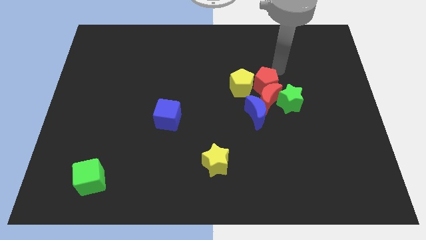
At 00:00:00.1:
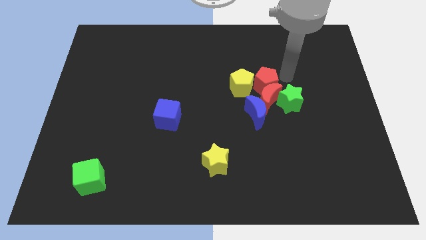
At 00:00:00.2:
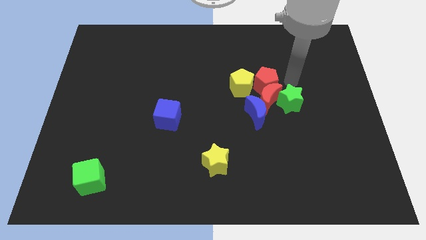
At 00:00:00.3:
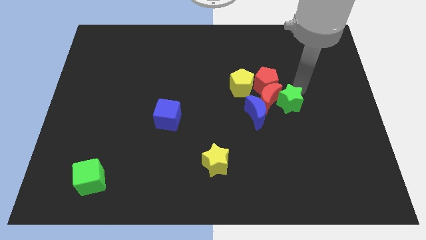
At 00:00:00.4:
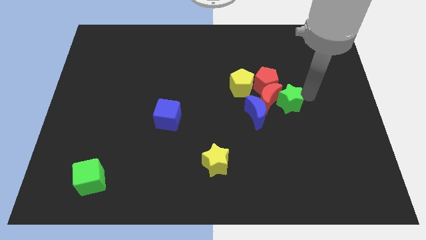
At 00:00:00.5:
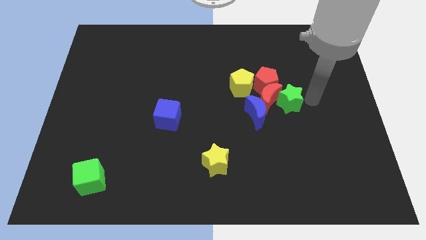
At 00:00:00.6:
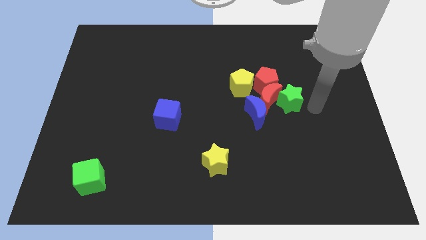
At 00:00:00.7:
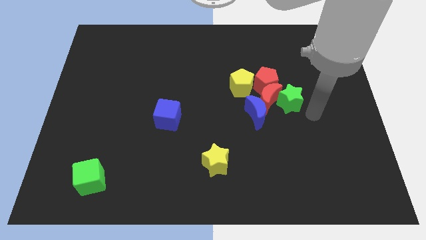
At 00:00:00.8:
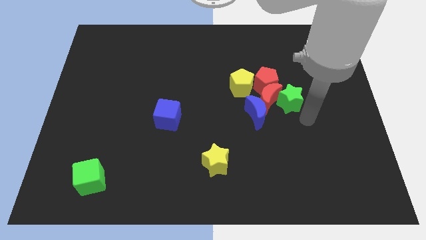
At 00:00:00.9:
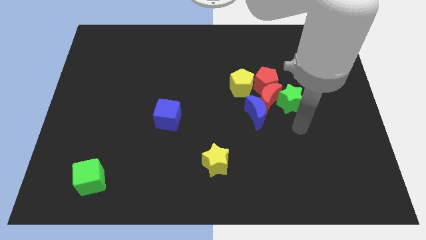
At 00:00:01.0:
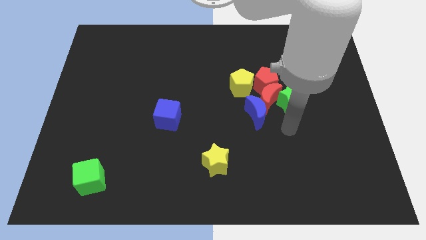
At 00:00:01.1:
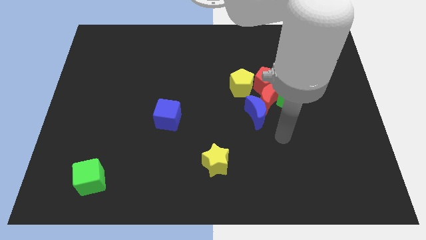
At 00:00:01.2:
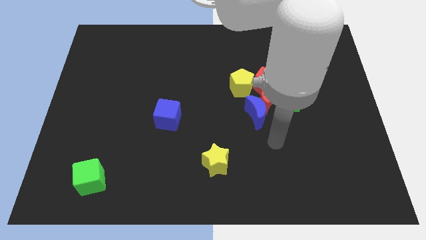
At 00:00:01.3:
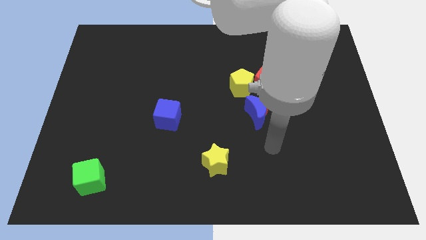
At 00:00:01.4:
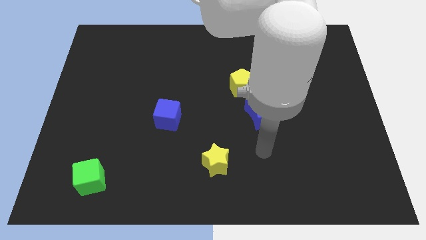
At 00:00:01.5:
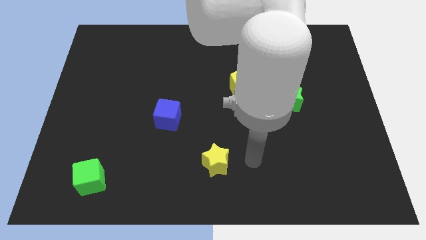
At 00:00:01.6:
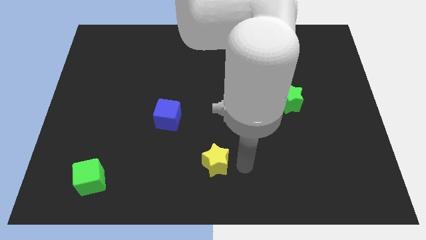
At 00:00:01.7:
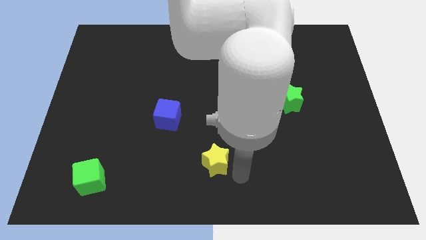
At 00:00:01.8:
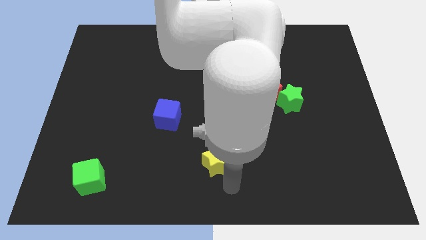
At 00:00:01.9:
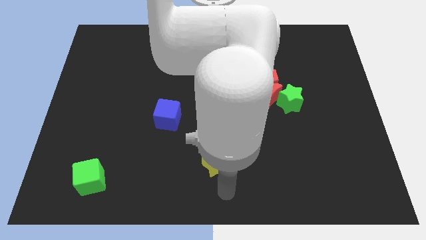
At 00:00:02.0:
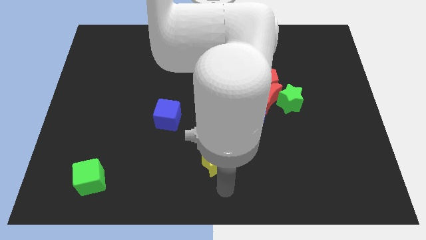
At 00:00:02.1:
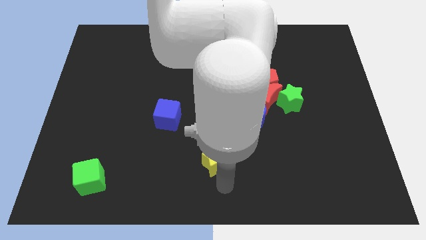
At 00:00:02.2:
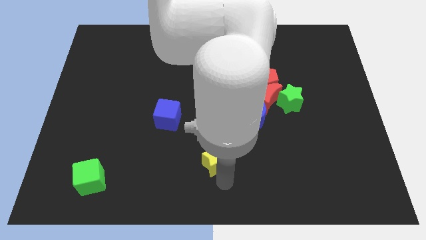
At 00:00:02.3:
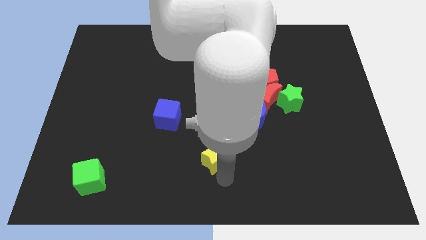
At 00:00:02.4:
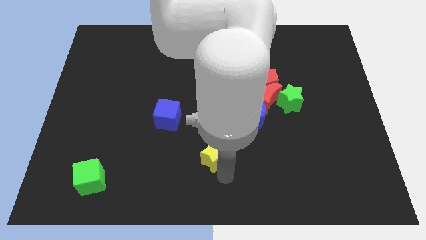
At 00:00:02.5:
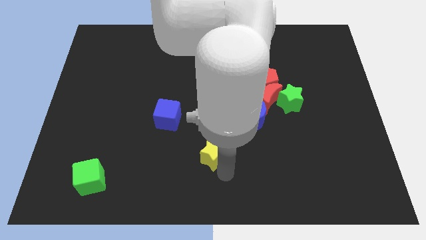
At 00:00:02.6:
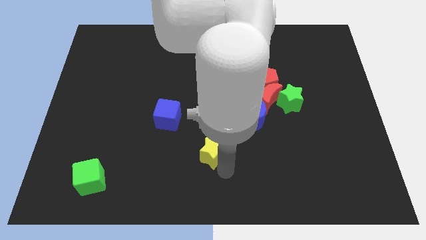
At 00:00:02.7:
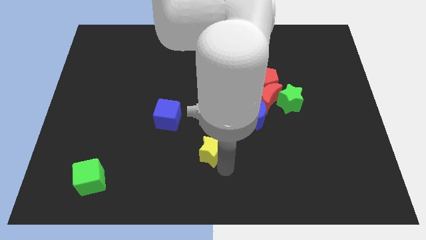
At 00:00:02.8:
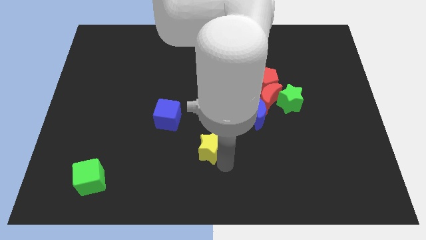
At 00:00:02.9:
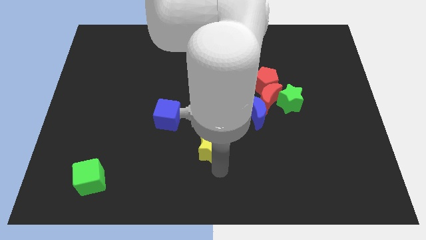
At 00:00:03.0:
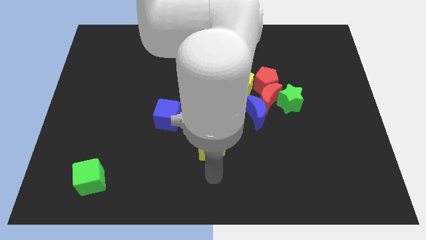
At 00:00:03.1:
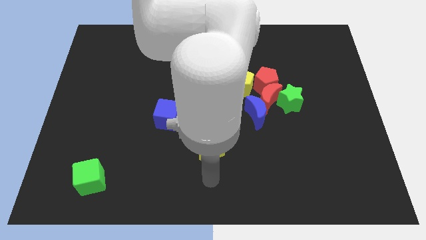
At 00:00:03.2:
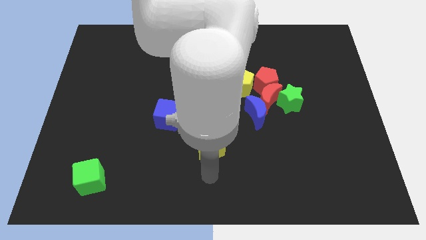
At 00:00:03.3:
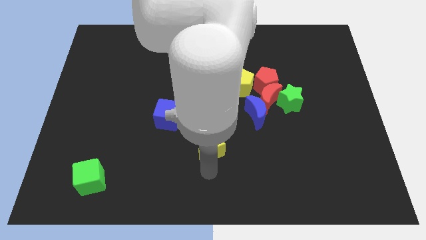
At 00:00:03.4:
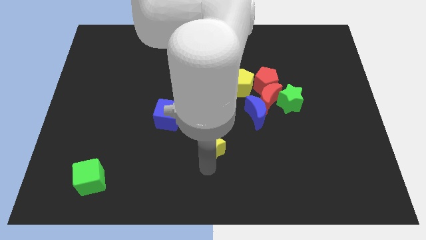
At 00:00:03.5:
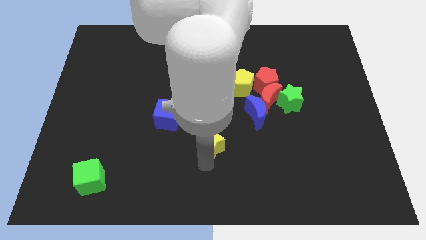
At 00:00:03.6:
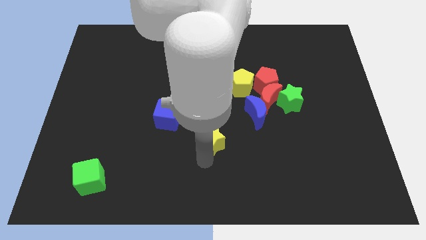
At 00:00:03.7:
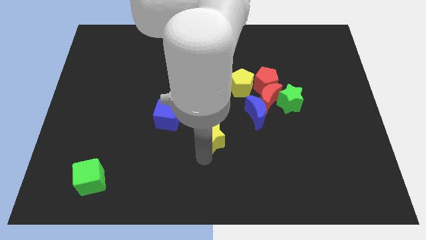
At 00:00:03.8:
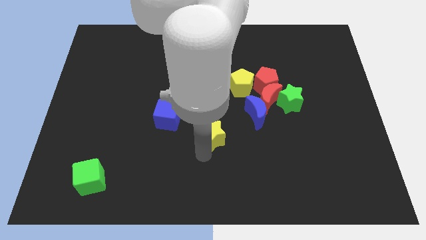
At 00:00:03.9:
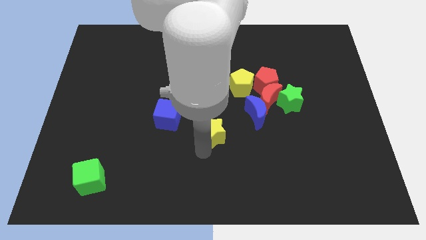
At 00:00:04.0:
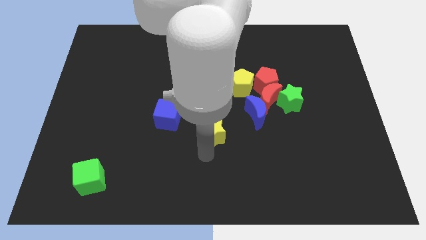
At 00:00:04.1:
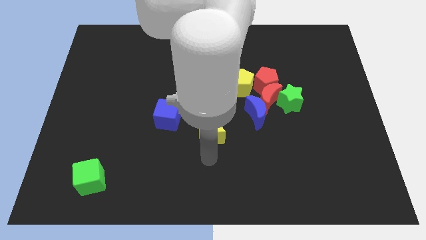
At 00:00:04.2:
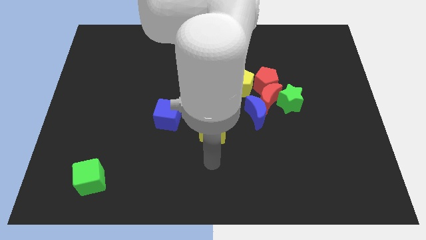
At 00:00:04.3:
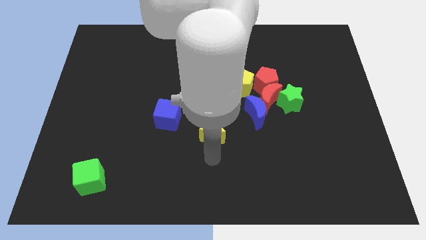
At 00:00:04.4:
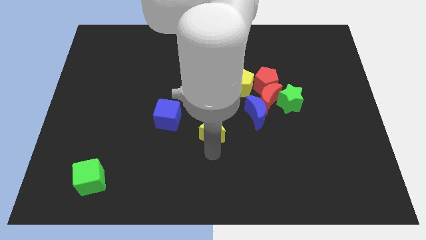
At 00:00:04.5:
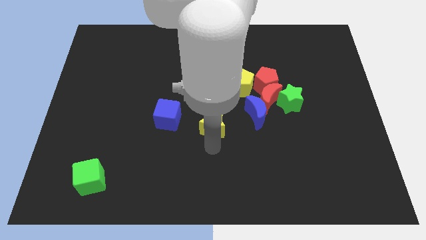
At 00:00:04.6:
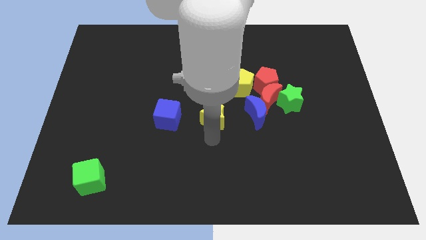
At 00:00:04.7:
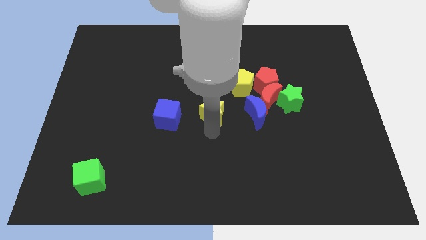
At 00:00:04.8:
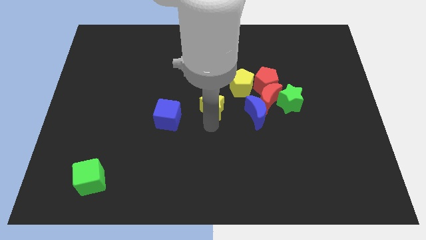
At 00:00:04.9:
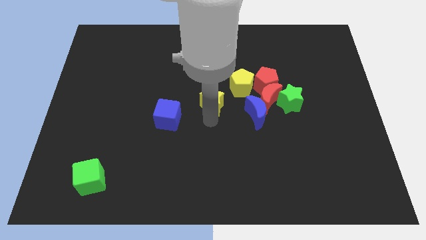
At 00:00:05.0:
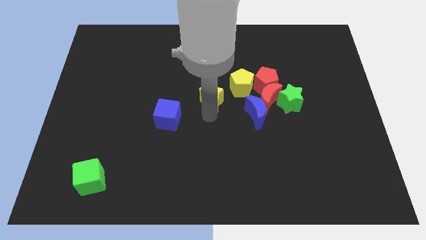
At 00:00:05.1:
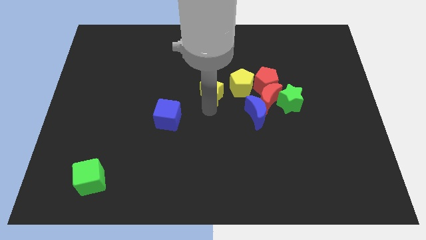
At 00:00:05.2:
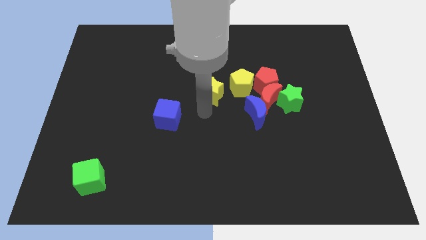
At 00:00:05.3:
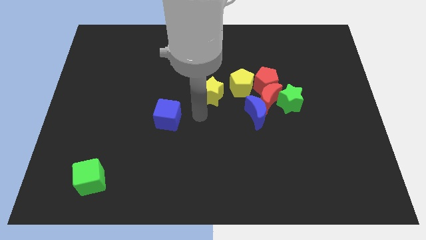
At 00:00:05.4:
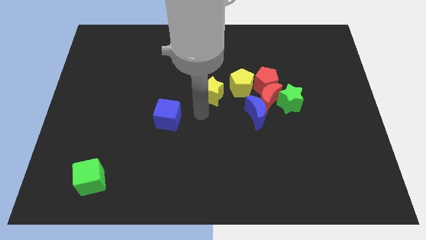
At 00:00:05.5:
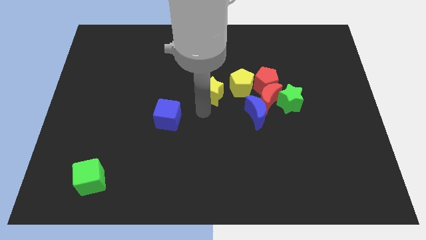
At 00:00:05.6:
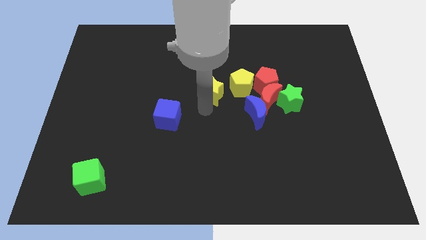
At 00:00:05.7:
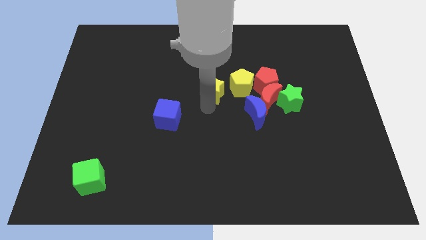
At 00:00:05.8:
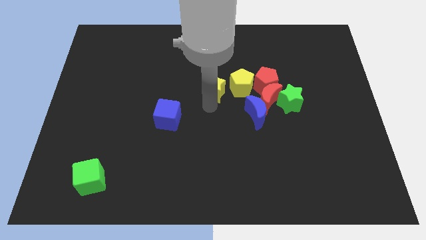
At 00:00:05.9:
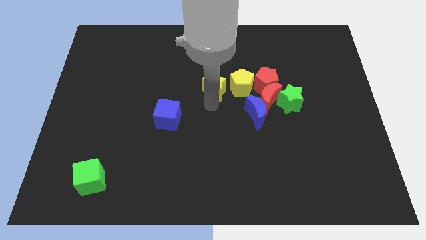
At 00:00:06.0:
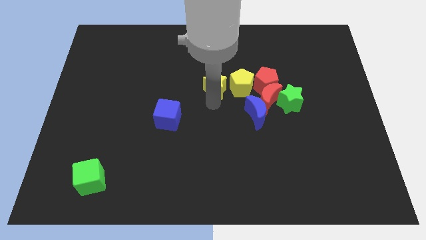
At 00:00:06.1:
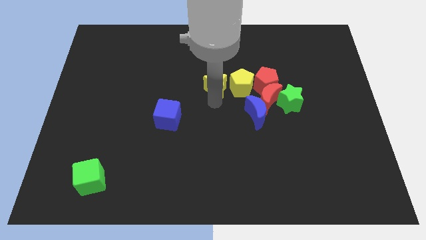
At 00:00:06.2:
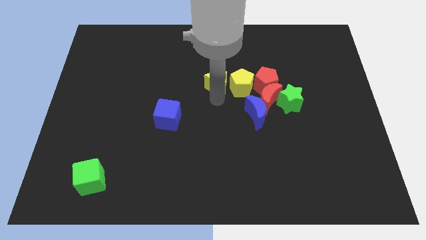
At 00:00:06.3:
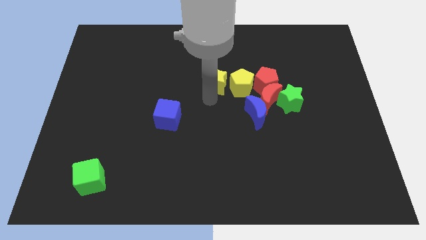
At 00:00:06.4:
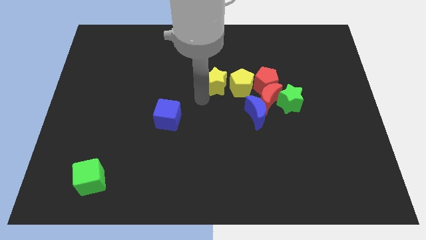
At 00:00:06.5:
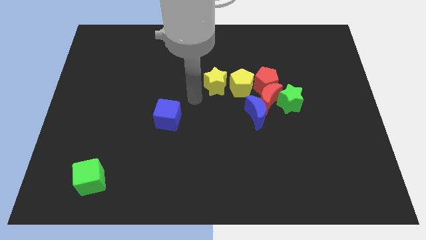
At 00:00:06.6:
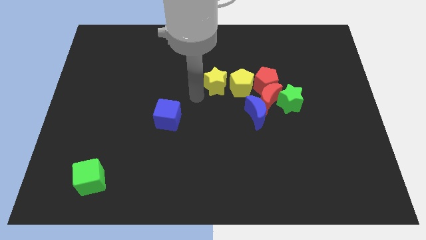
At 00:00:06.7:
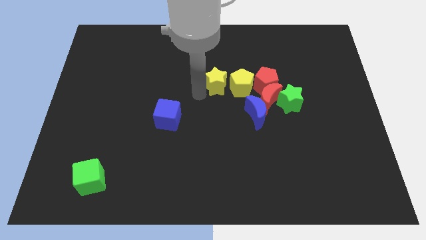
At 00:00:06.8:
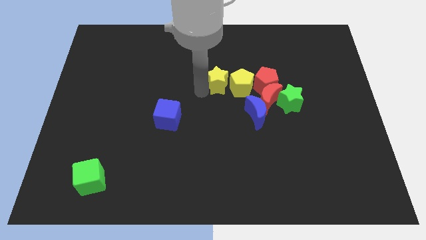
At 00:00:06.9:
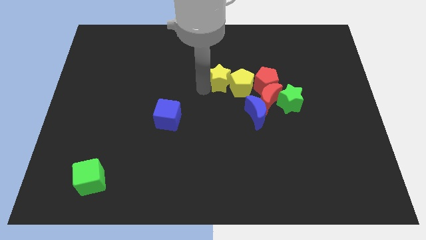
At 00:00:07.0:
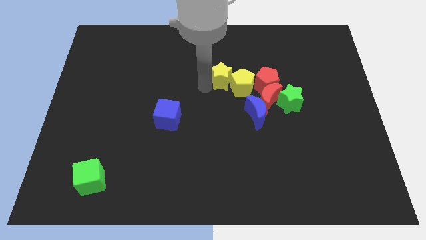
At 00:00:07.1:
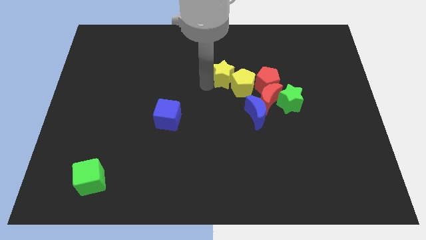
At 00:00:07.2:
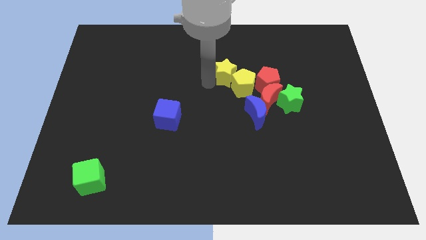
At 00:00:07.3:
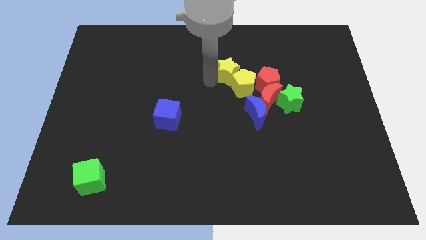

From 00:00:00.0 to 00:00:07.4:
slide the yellow star to the top left of the red pentagon
